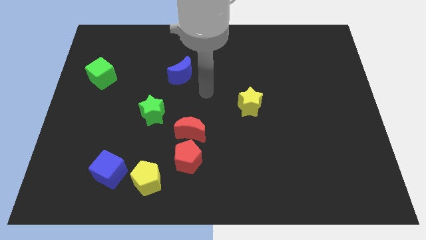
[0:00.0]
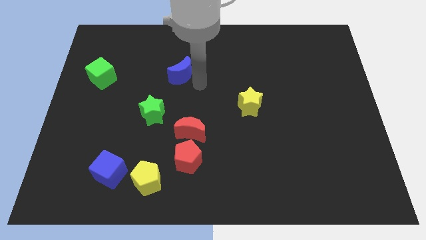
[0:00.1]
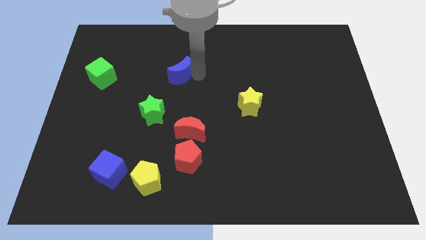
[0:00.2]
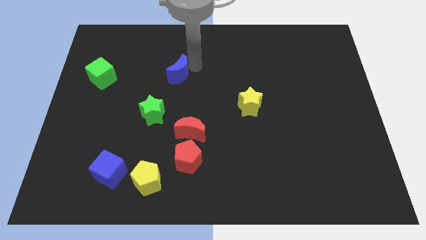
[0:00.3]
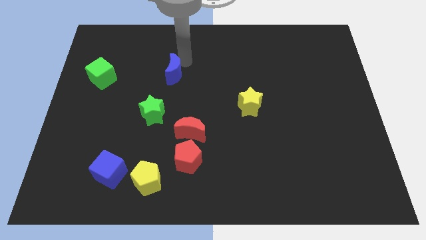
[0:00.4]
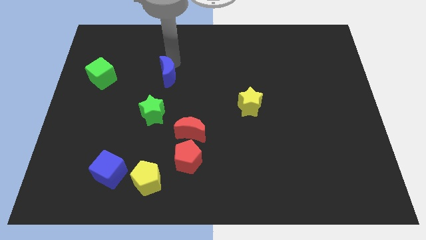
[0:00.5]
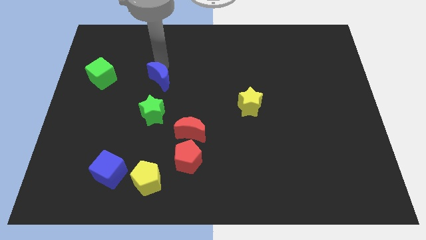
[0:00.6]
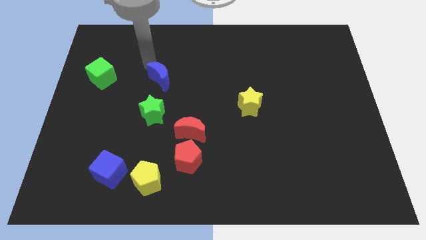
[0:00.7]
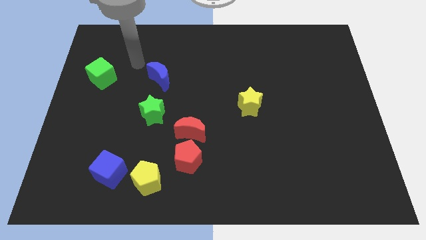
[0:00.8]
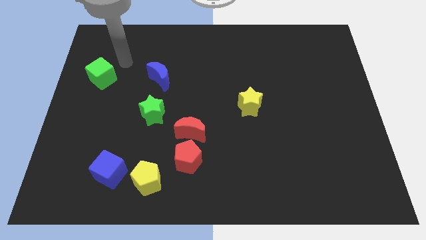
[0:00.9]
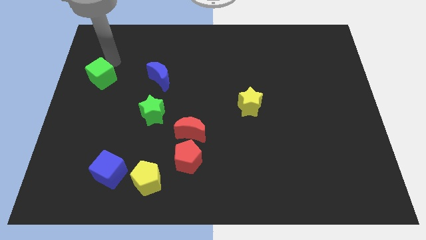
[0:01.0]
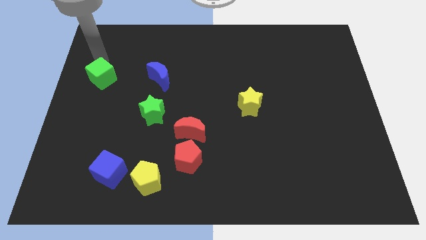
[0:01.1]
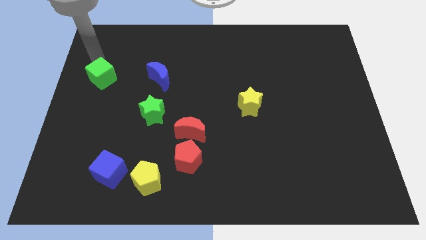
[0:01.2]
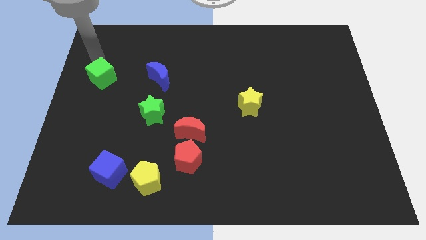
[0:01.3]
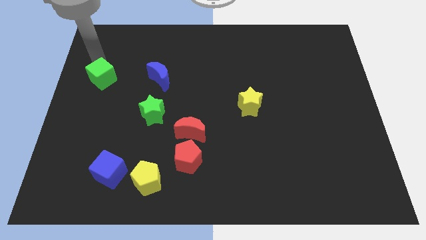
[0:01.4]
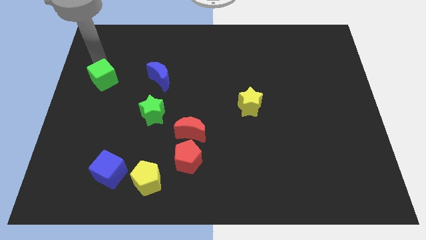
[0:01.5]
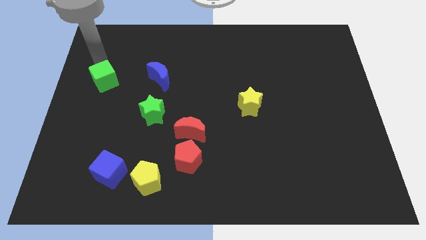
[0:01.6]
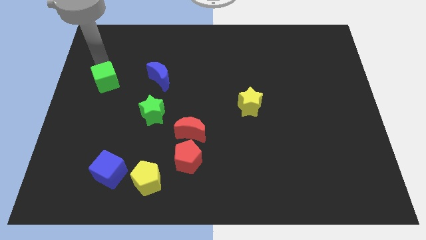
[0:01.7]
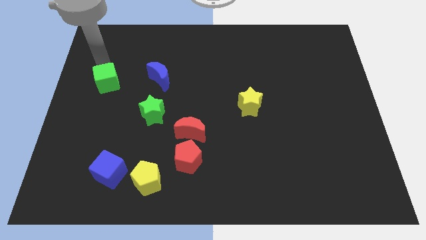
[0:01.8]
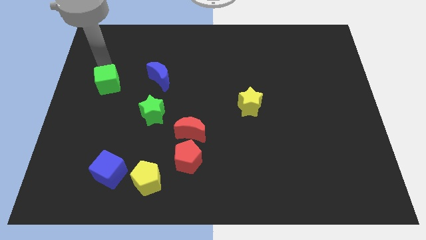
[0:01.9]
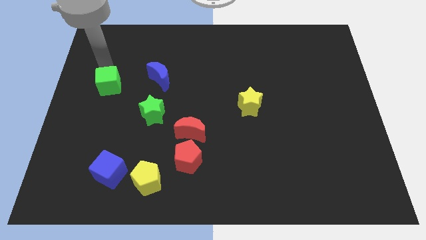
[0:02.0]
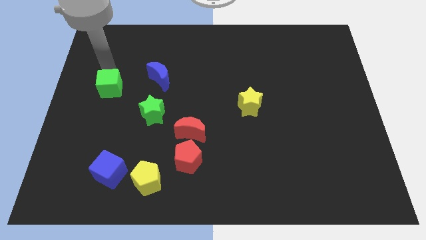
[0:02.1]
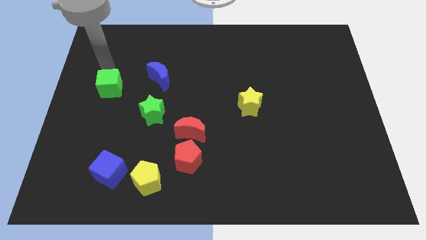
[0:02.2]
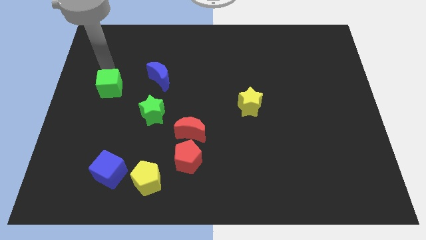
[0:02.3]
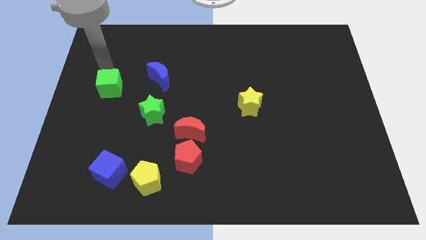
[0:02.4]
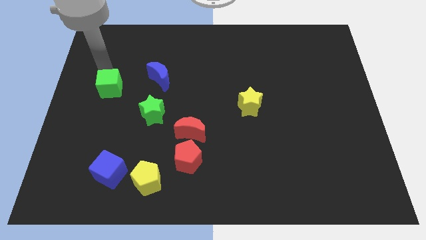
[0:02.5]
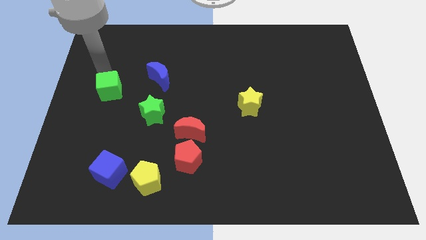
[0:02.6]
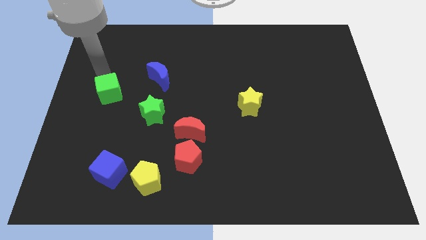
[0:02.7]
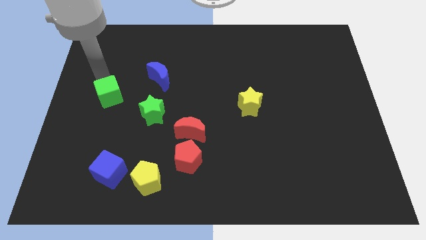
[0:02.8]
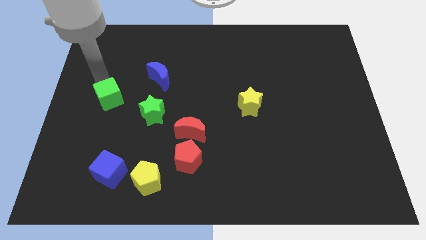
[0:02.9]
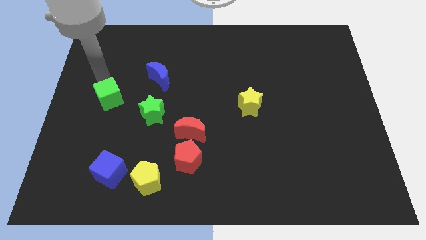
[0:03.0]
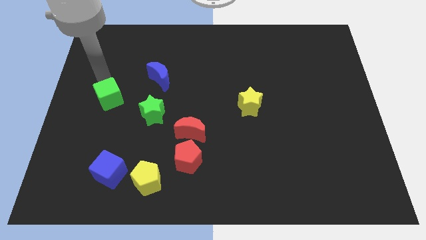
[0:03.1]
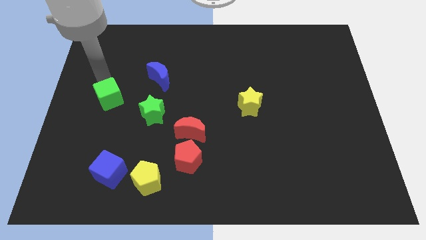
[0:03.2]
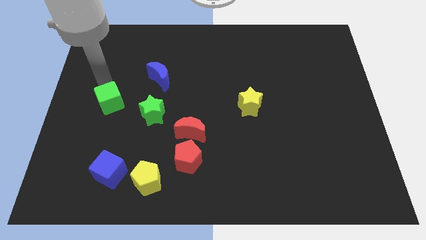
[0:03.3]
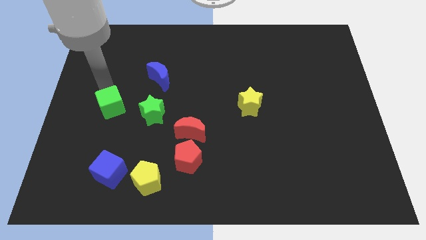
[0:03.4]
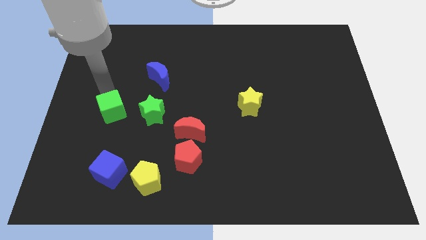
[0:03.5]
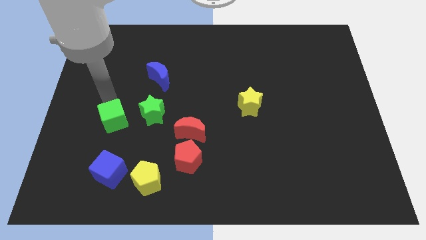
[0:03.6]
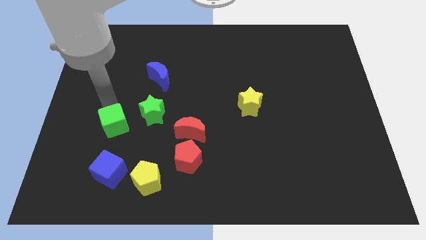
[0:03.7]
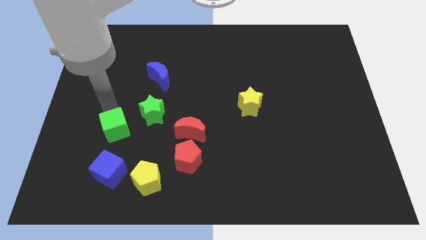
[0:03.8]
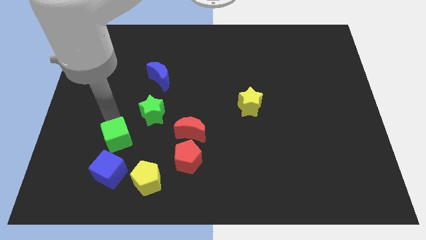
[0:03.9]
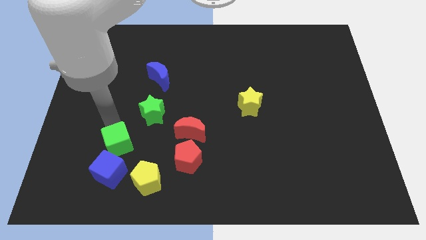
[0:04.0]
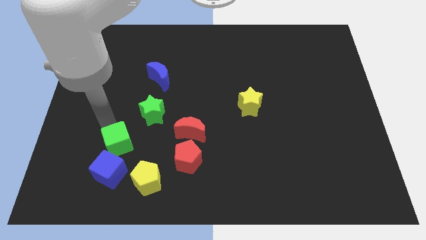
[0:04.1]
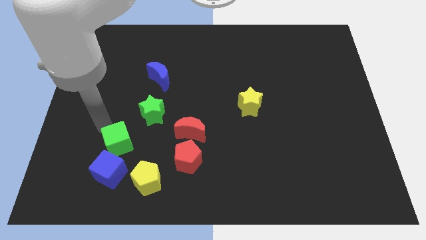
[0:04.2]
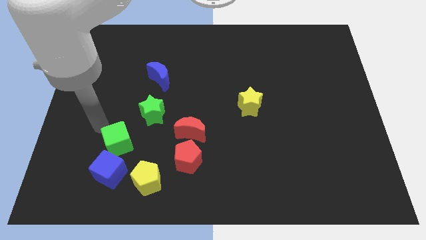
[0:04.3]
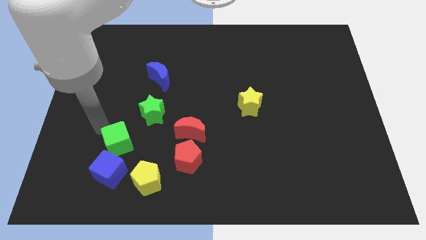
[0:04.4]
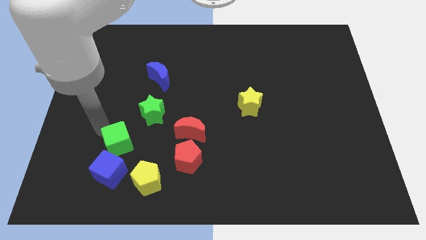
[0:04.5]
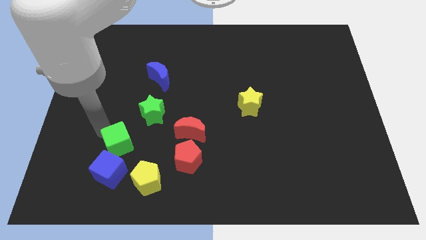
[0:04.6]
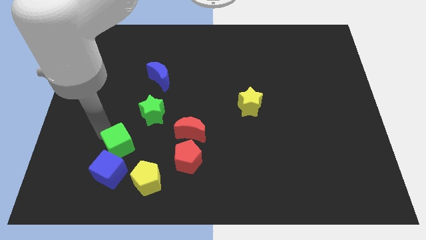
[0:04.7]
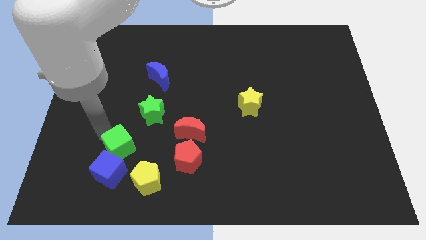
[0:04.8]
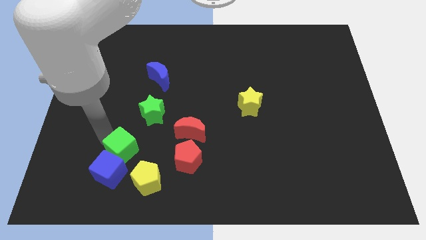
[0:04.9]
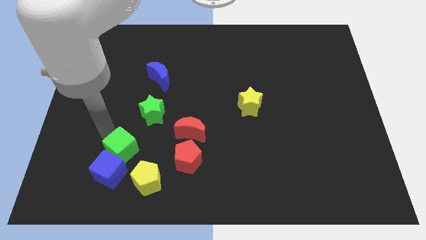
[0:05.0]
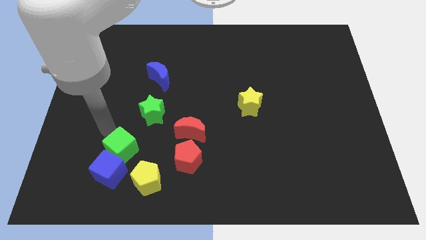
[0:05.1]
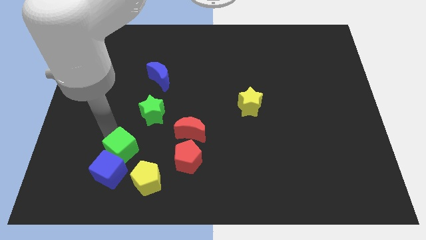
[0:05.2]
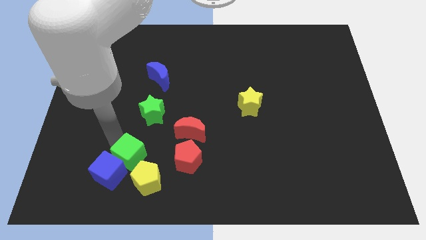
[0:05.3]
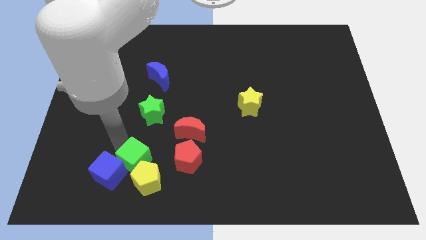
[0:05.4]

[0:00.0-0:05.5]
slide the green cube towards the yellow pentagon

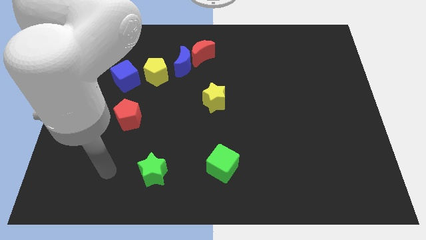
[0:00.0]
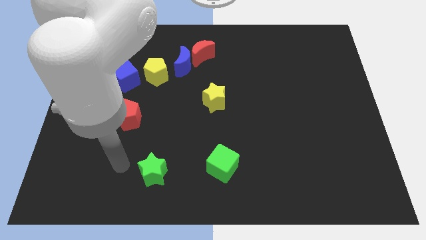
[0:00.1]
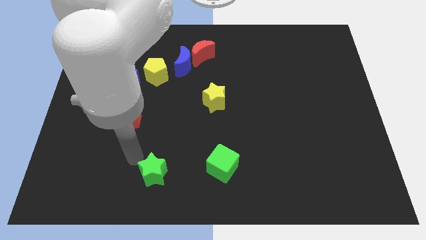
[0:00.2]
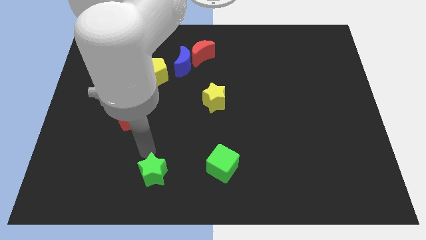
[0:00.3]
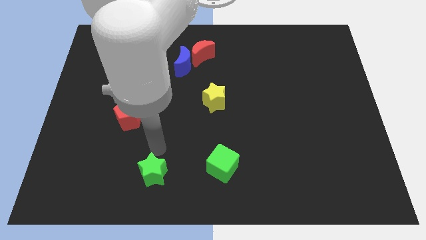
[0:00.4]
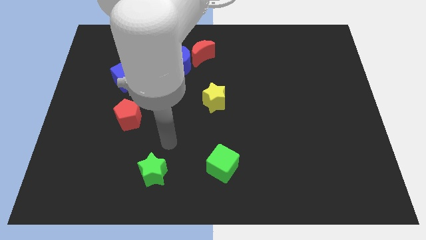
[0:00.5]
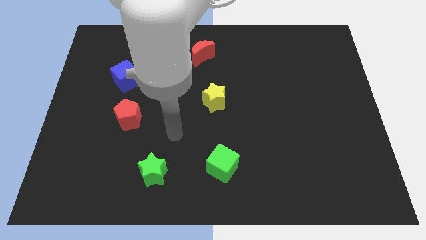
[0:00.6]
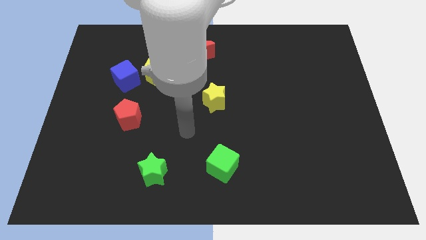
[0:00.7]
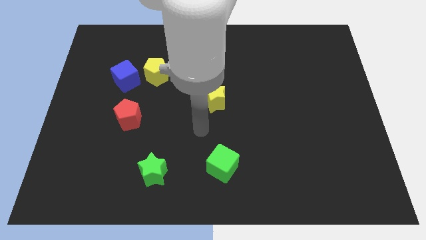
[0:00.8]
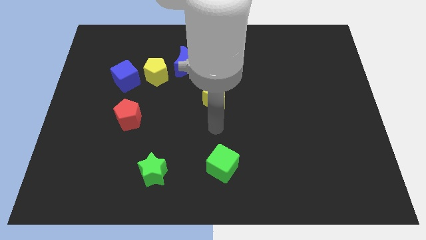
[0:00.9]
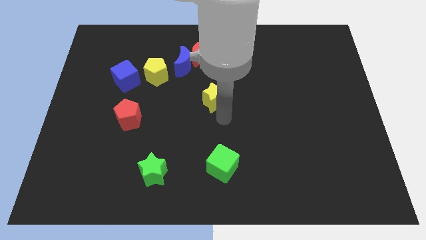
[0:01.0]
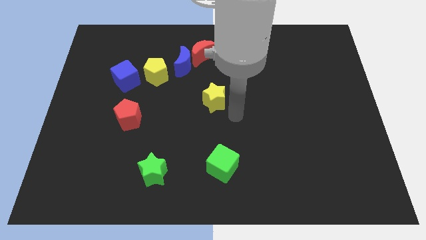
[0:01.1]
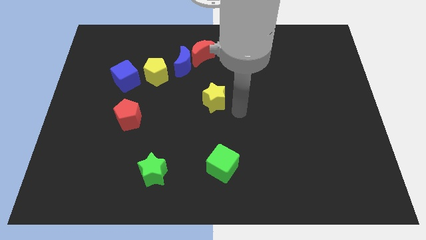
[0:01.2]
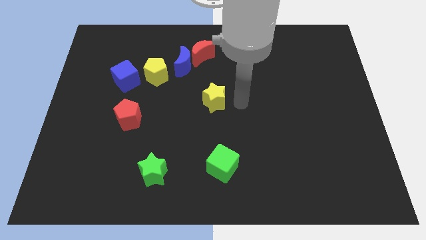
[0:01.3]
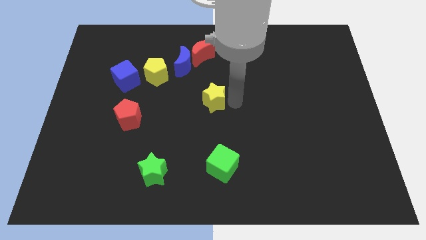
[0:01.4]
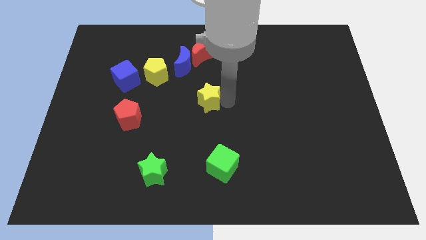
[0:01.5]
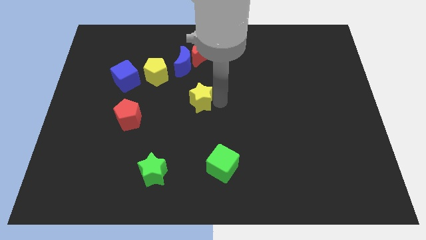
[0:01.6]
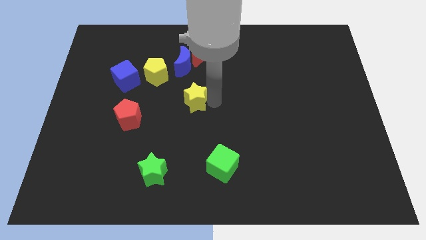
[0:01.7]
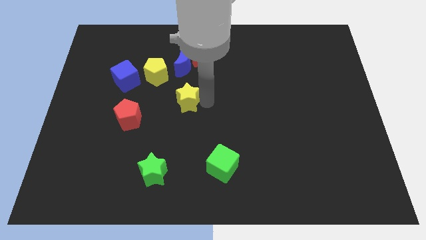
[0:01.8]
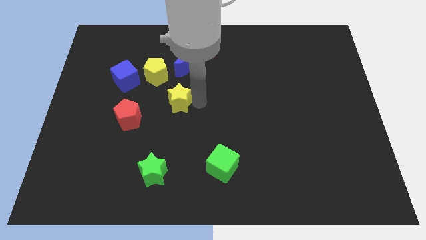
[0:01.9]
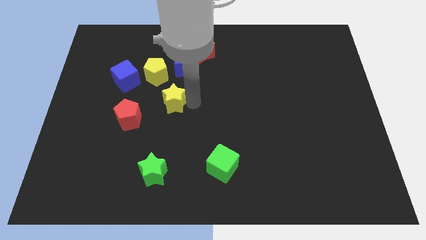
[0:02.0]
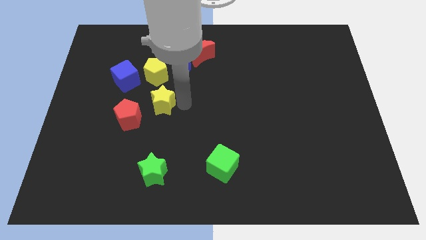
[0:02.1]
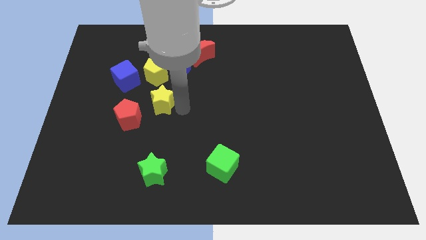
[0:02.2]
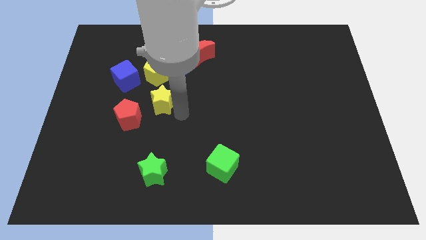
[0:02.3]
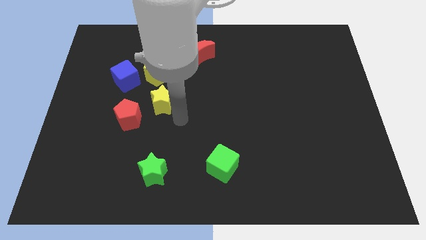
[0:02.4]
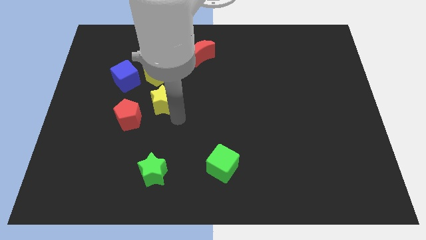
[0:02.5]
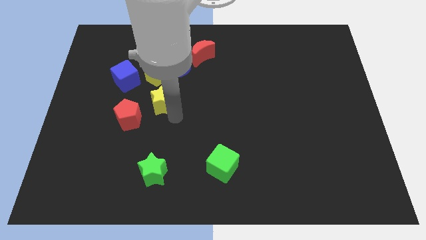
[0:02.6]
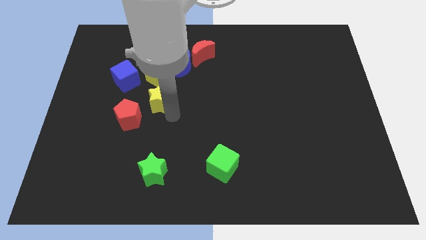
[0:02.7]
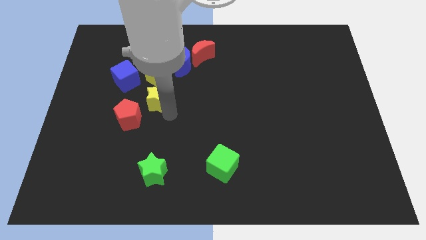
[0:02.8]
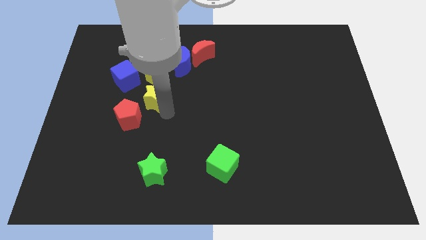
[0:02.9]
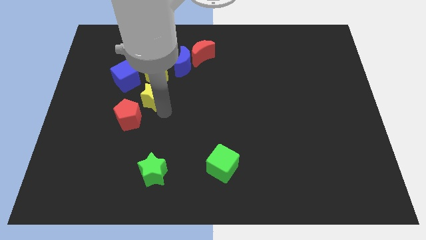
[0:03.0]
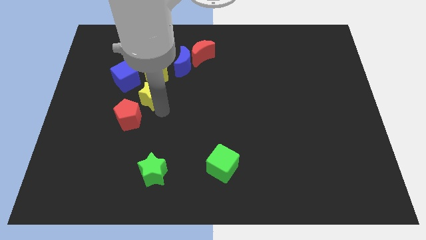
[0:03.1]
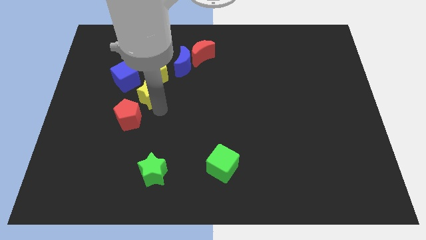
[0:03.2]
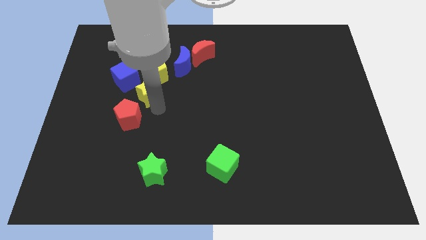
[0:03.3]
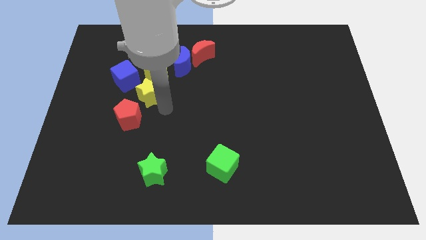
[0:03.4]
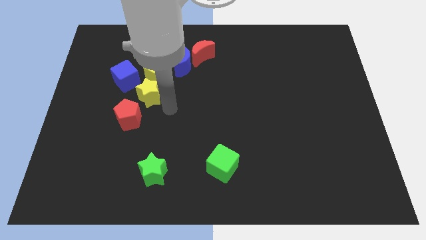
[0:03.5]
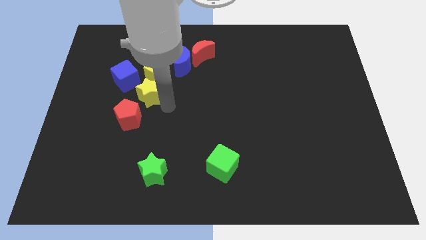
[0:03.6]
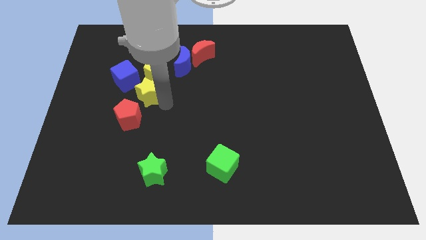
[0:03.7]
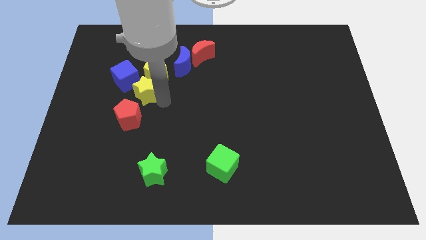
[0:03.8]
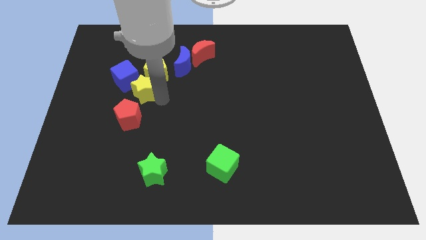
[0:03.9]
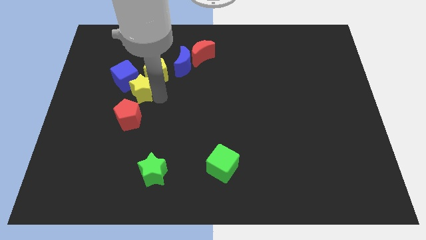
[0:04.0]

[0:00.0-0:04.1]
put the yellow star next to the blue cube
